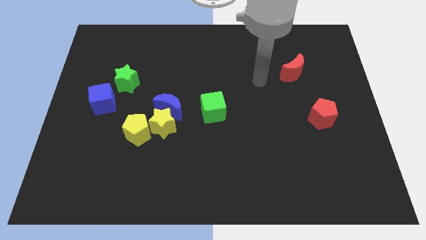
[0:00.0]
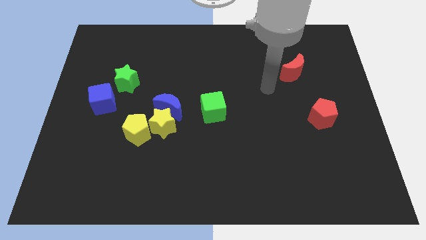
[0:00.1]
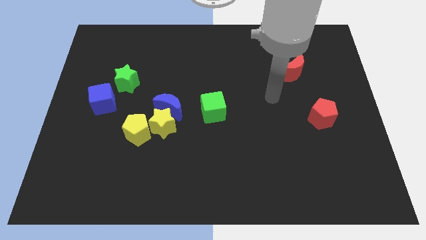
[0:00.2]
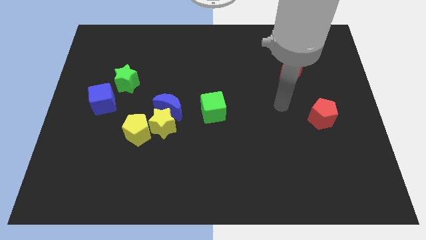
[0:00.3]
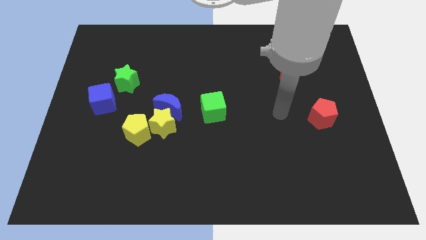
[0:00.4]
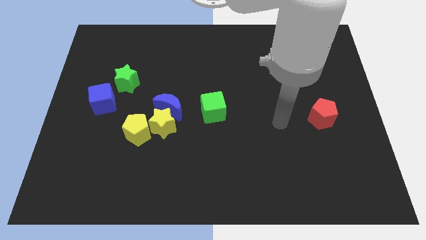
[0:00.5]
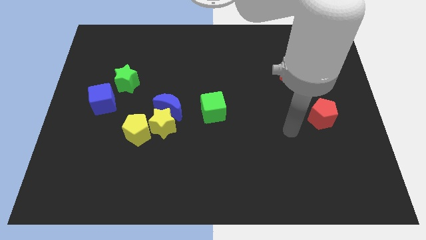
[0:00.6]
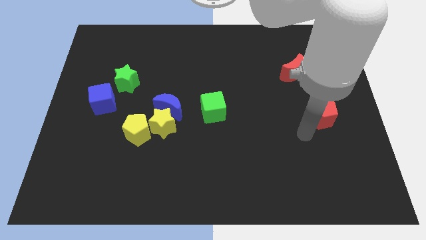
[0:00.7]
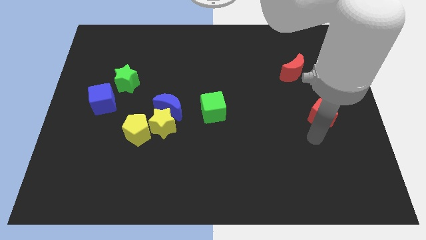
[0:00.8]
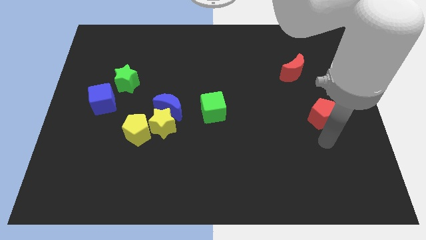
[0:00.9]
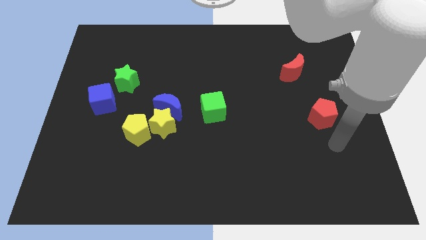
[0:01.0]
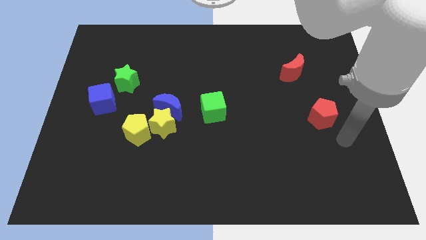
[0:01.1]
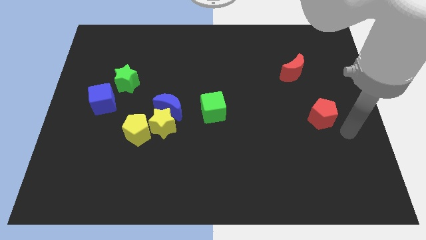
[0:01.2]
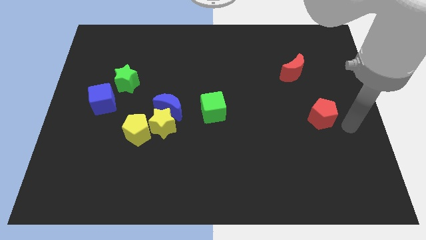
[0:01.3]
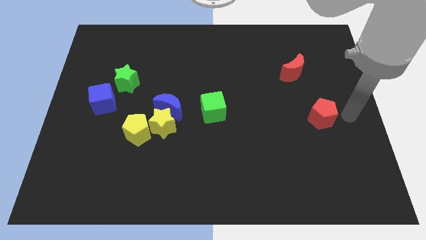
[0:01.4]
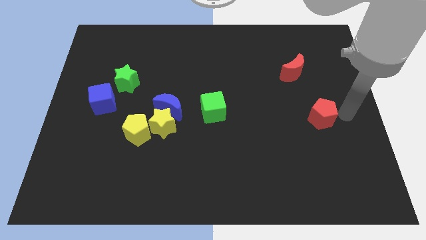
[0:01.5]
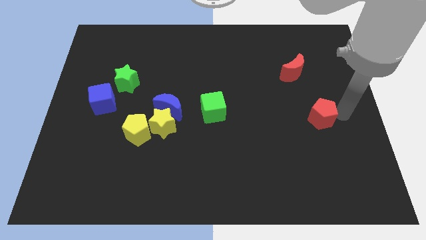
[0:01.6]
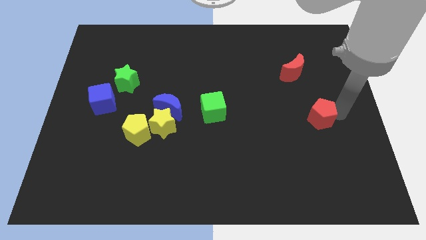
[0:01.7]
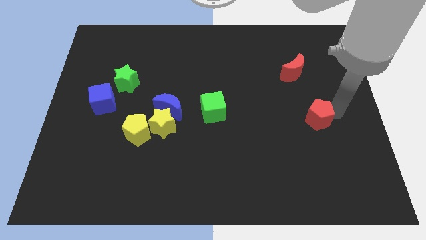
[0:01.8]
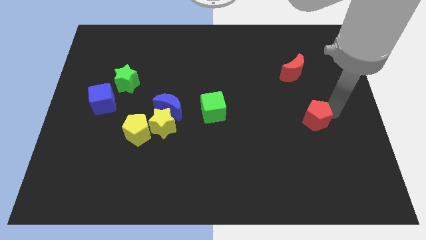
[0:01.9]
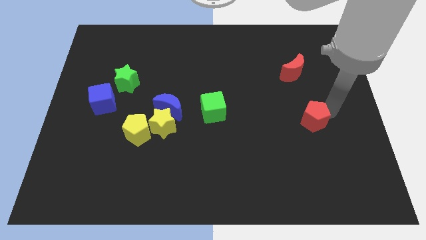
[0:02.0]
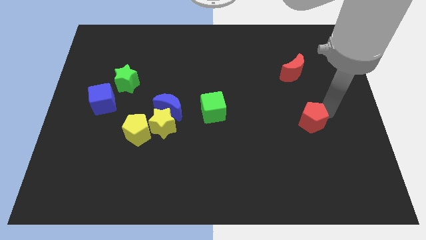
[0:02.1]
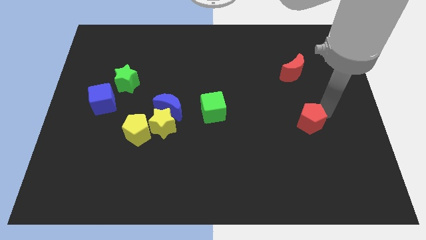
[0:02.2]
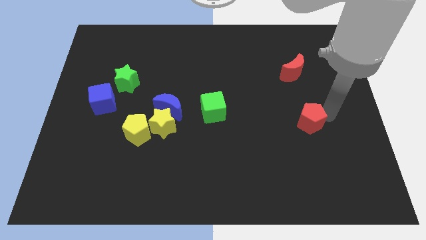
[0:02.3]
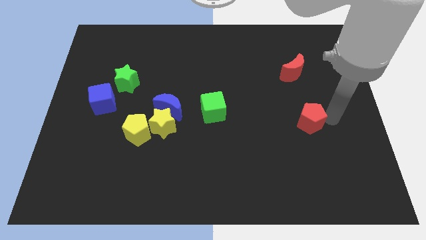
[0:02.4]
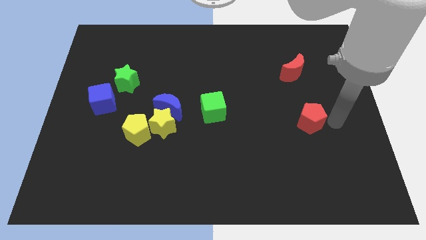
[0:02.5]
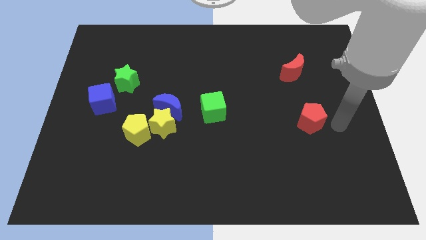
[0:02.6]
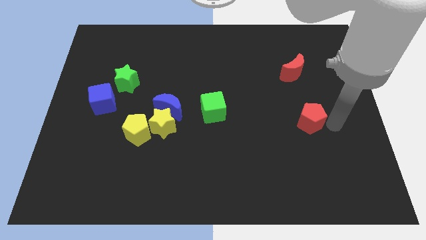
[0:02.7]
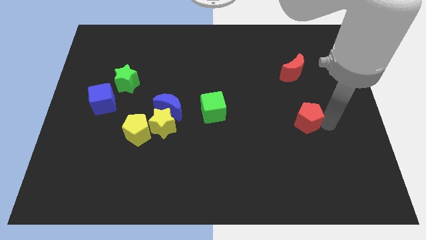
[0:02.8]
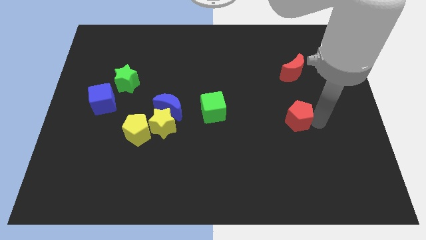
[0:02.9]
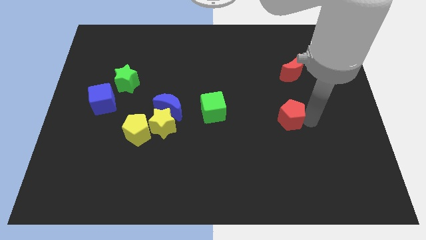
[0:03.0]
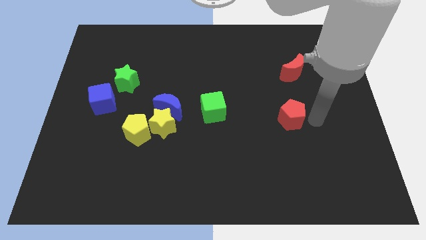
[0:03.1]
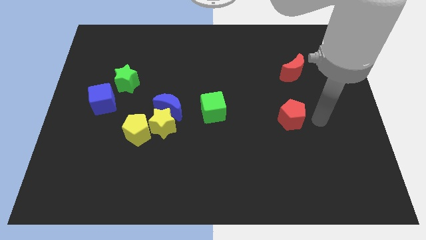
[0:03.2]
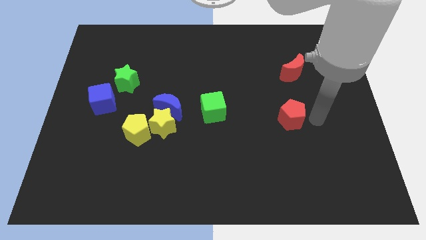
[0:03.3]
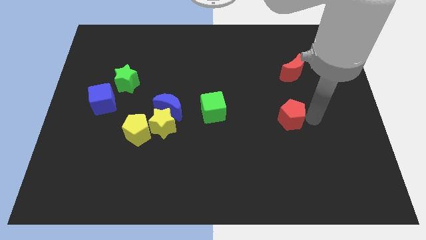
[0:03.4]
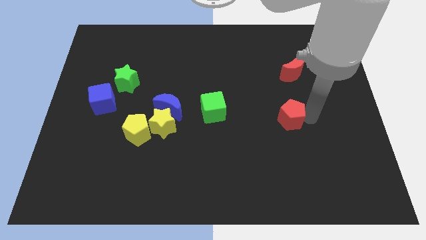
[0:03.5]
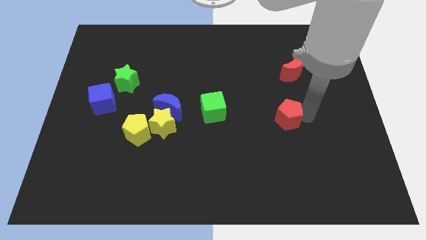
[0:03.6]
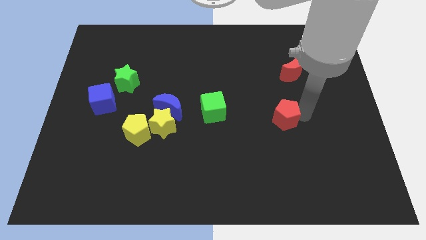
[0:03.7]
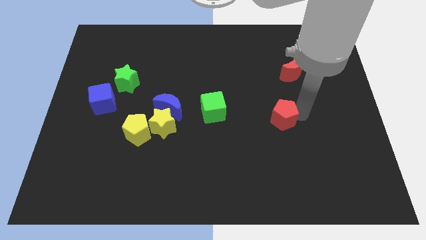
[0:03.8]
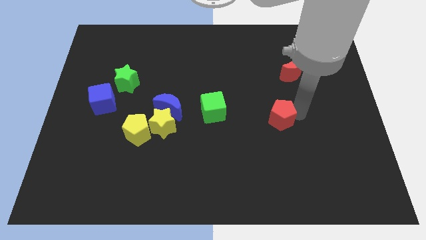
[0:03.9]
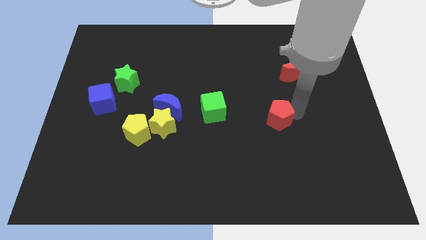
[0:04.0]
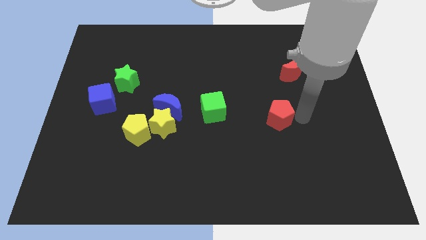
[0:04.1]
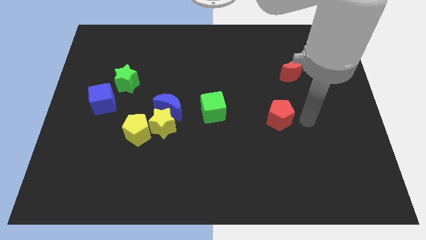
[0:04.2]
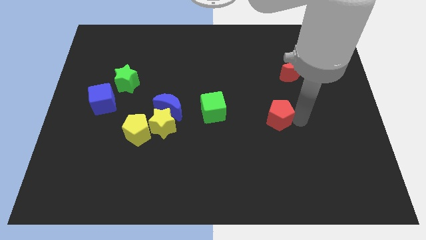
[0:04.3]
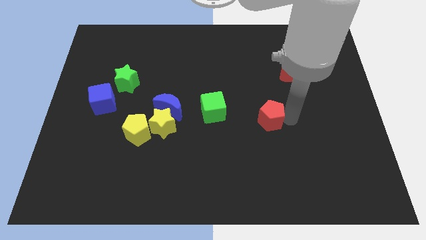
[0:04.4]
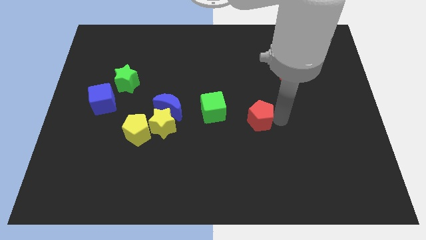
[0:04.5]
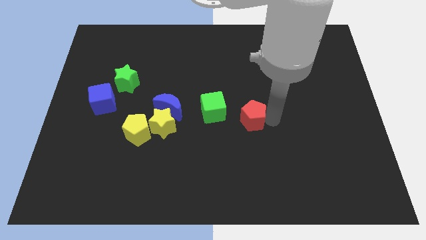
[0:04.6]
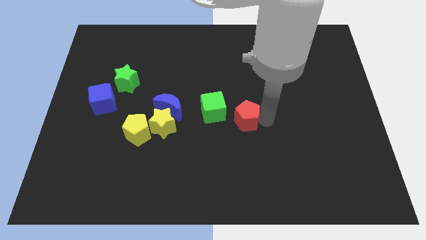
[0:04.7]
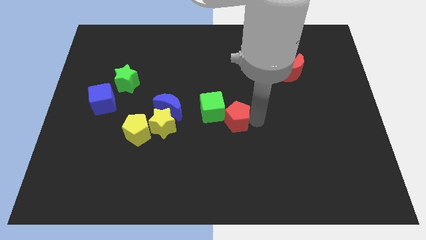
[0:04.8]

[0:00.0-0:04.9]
push the red pentagon next to the green cube

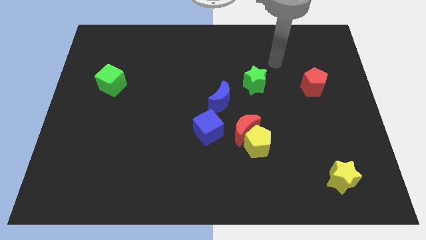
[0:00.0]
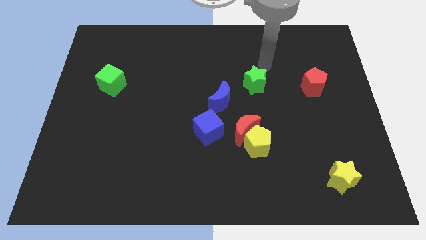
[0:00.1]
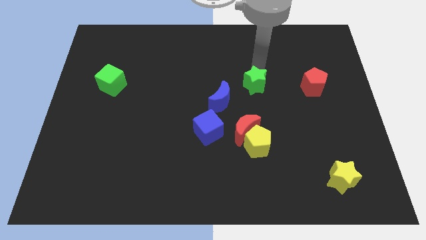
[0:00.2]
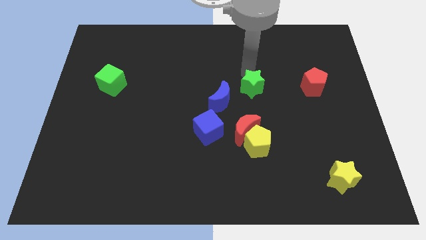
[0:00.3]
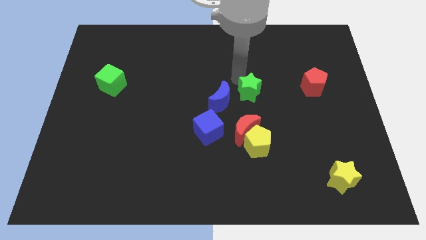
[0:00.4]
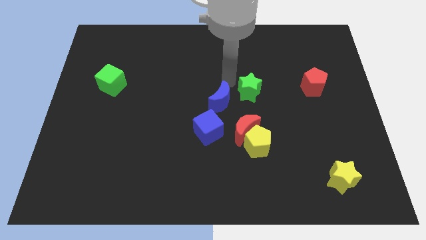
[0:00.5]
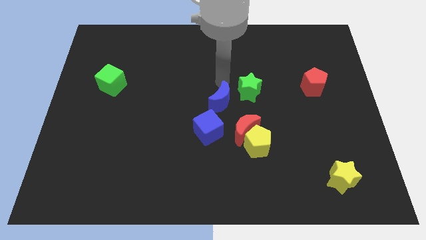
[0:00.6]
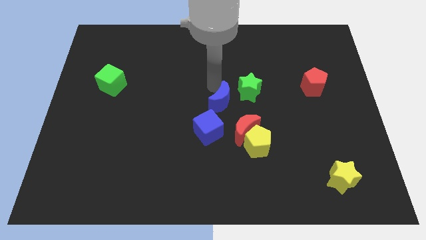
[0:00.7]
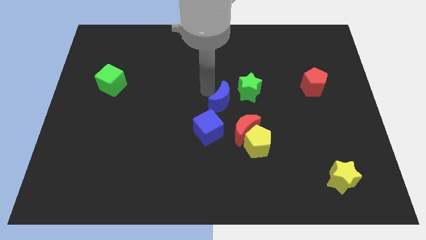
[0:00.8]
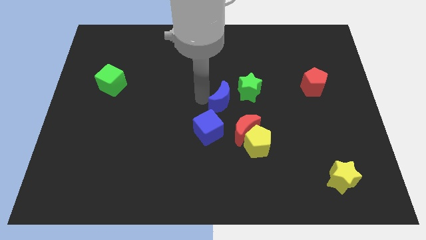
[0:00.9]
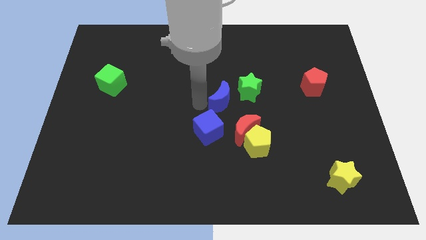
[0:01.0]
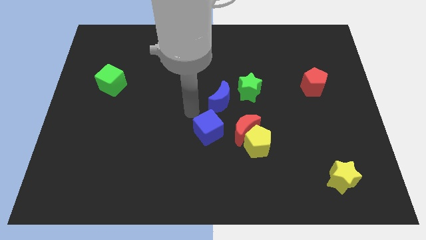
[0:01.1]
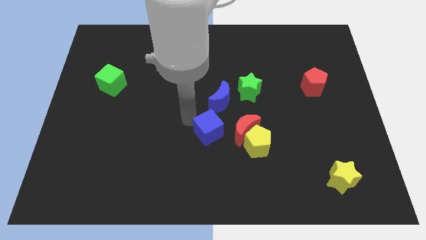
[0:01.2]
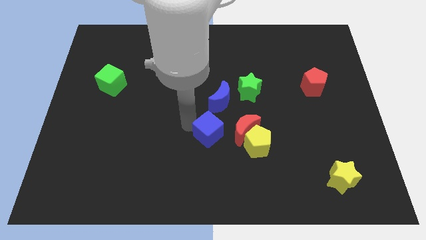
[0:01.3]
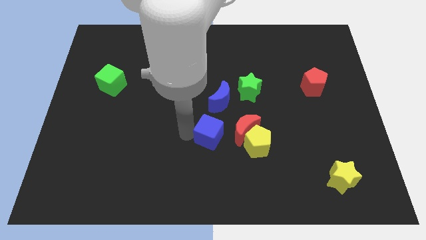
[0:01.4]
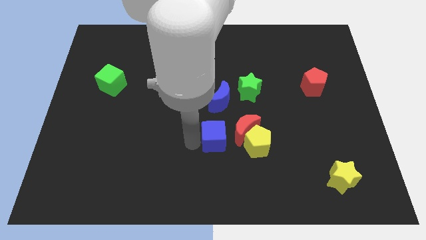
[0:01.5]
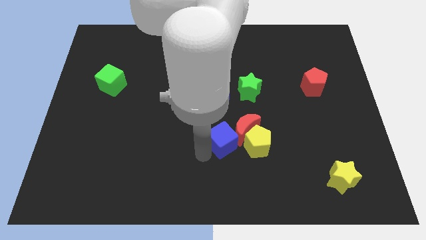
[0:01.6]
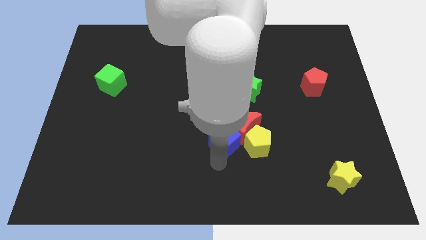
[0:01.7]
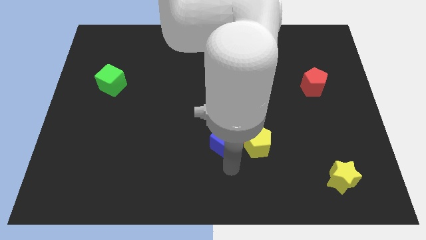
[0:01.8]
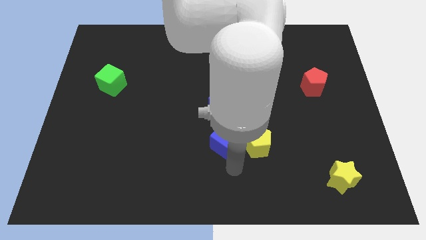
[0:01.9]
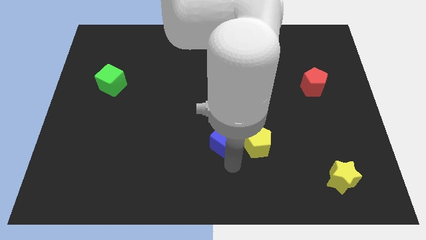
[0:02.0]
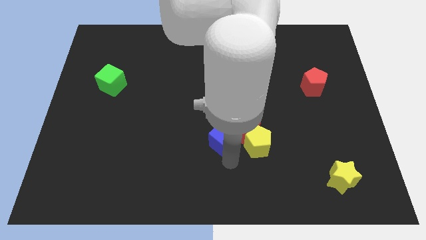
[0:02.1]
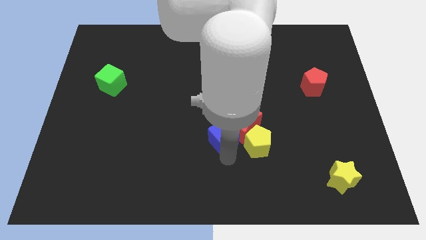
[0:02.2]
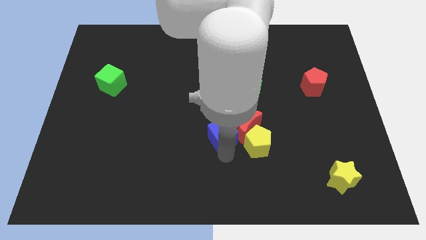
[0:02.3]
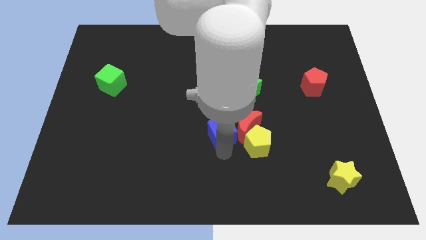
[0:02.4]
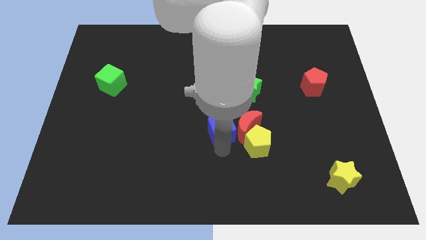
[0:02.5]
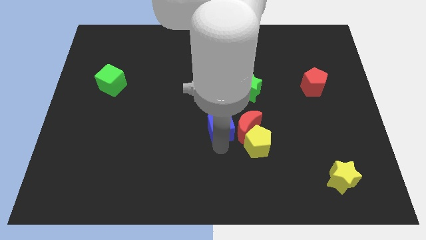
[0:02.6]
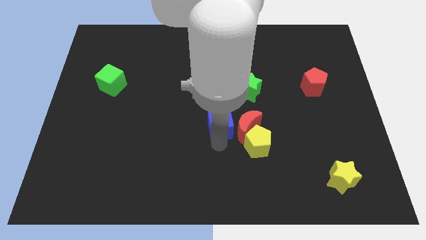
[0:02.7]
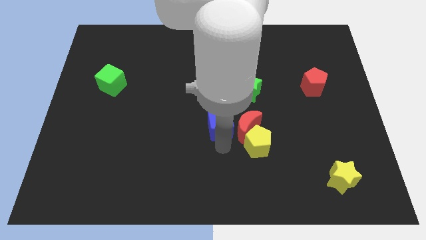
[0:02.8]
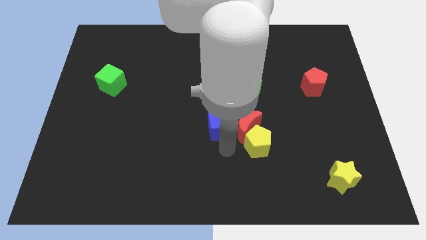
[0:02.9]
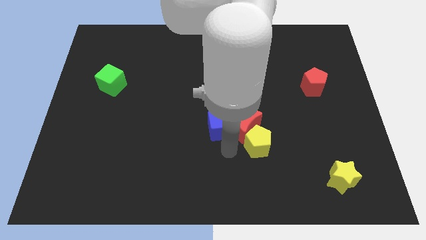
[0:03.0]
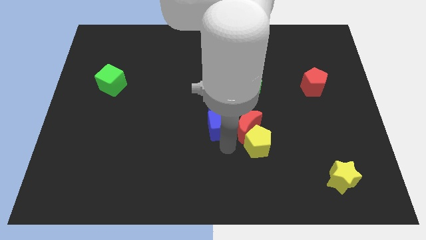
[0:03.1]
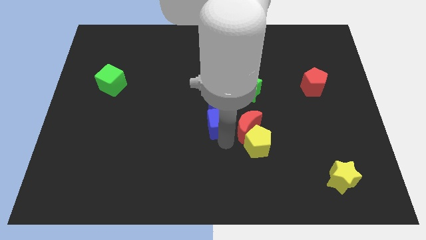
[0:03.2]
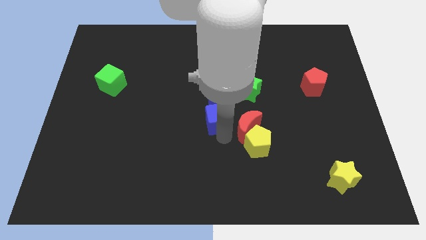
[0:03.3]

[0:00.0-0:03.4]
push the blue cube towards the blue moon
